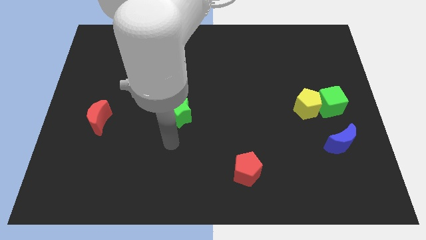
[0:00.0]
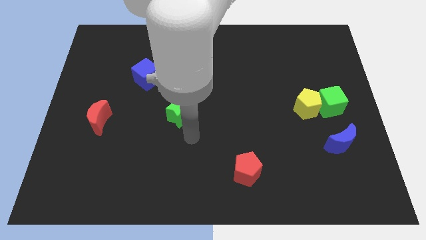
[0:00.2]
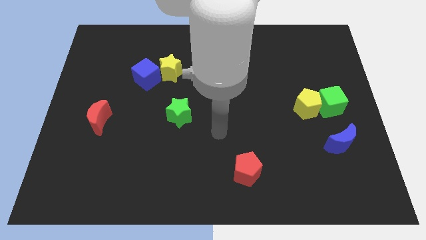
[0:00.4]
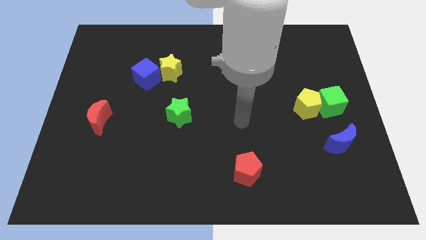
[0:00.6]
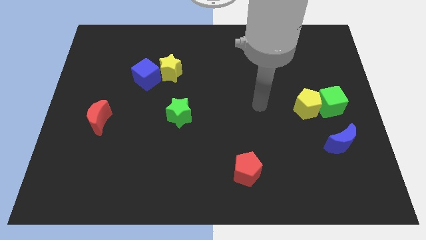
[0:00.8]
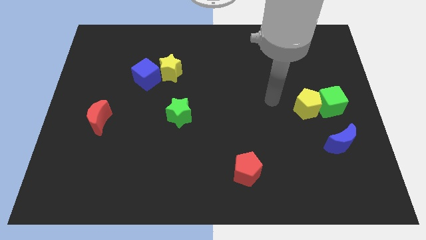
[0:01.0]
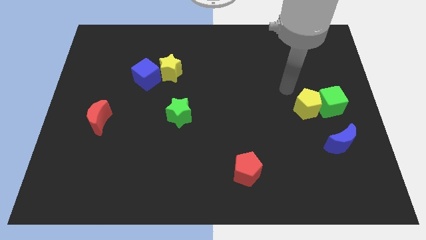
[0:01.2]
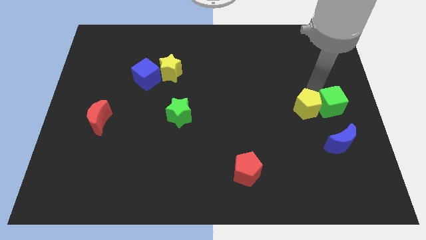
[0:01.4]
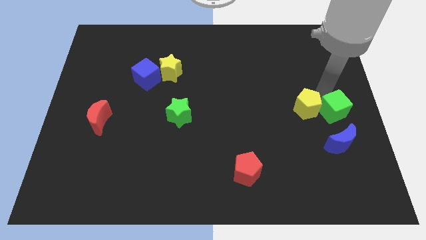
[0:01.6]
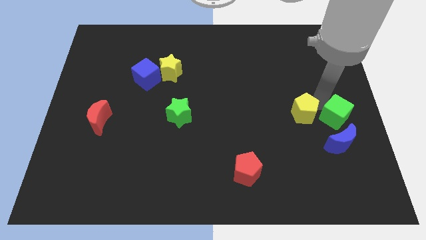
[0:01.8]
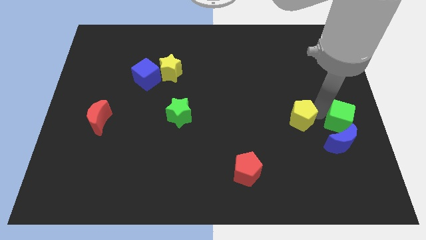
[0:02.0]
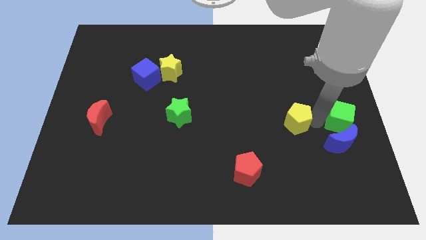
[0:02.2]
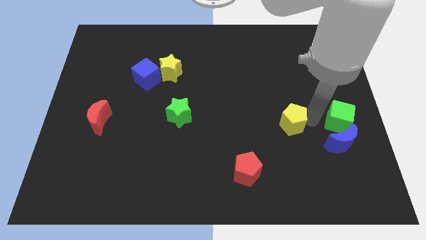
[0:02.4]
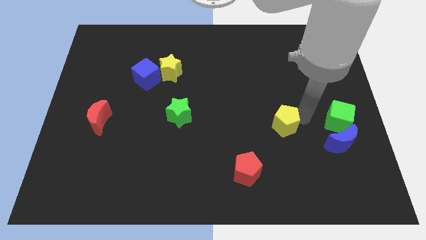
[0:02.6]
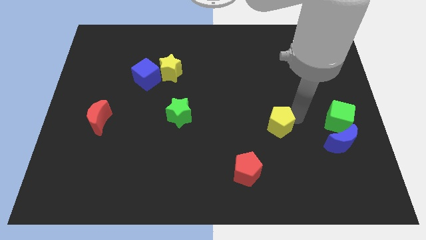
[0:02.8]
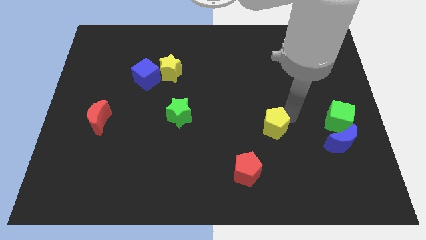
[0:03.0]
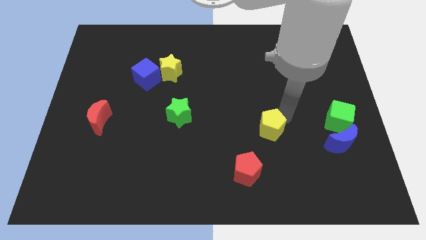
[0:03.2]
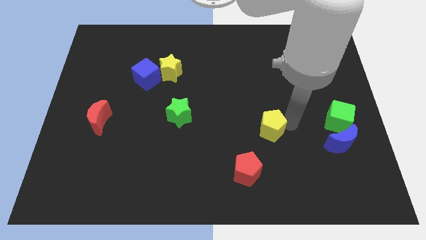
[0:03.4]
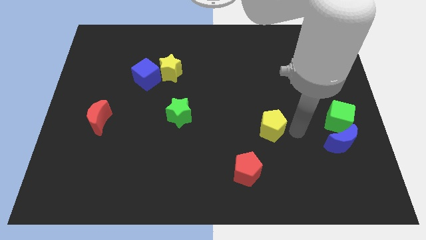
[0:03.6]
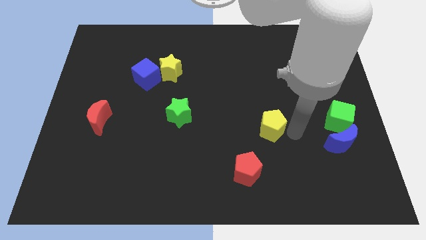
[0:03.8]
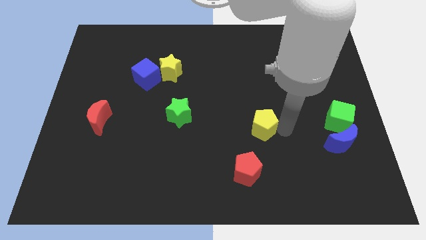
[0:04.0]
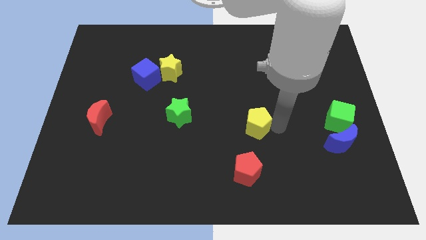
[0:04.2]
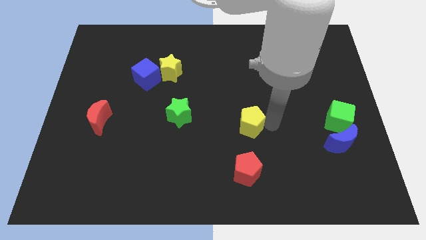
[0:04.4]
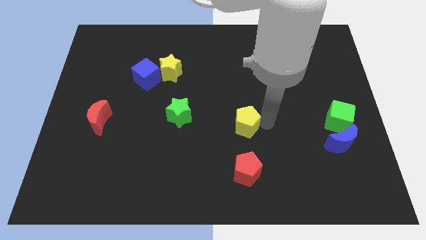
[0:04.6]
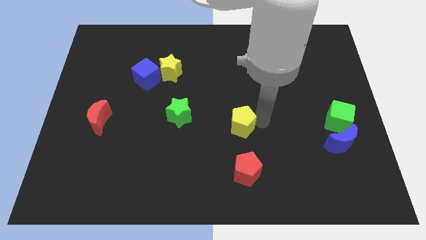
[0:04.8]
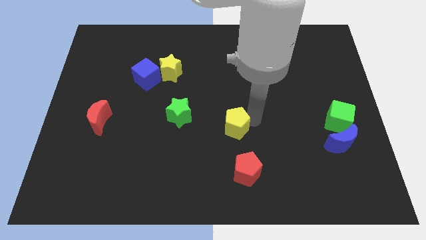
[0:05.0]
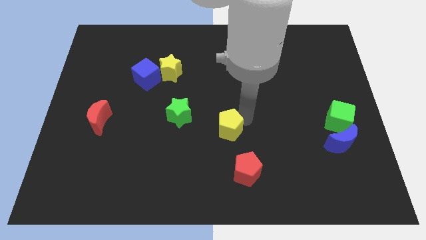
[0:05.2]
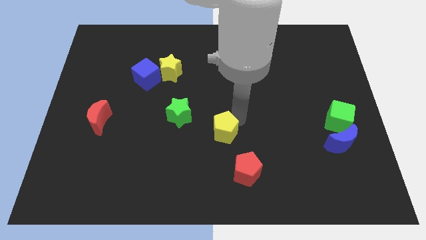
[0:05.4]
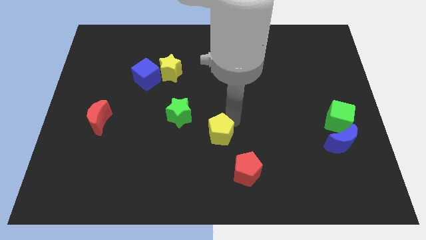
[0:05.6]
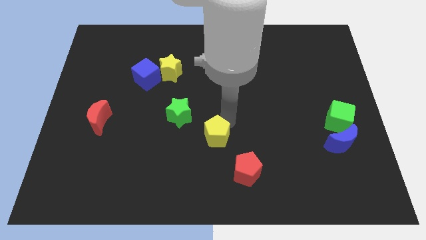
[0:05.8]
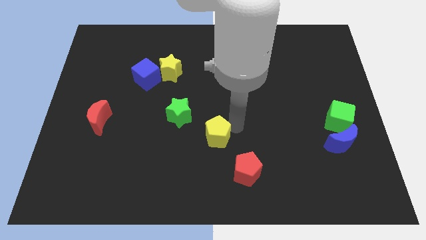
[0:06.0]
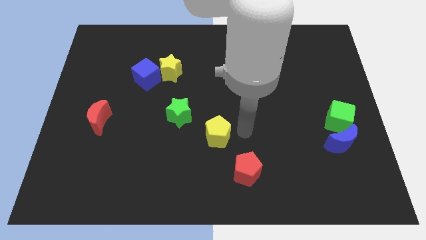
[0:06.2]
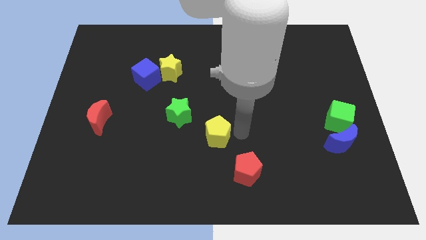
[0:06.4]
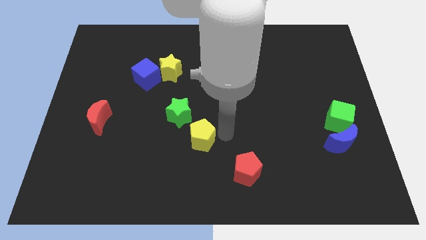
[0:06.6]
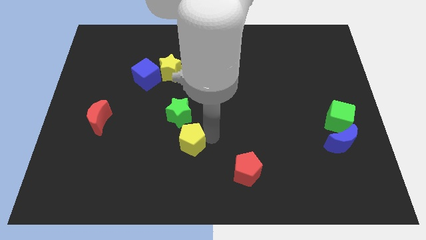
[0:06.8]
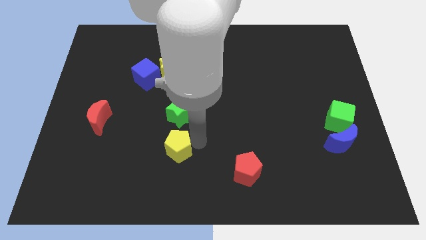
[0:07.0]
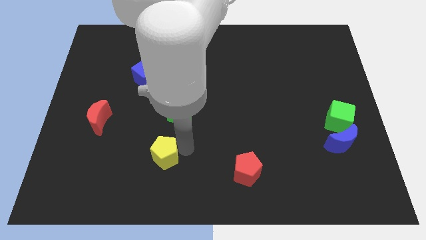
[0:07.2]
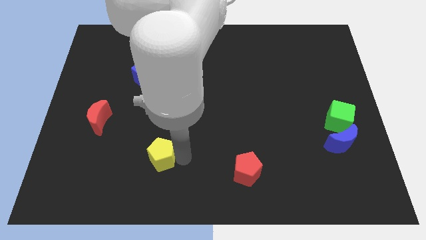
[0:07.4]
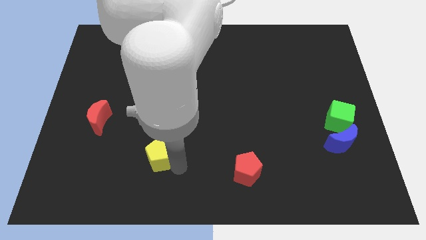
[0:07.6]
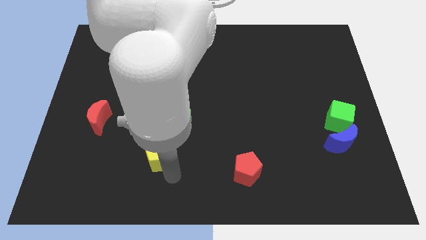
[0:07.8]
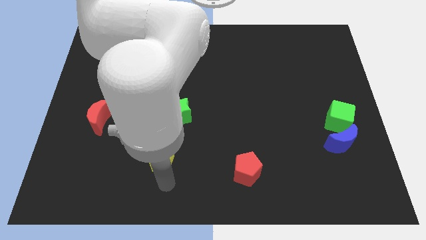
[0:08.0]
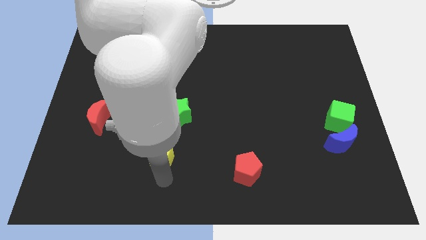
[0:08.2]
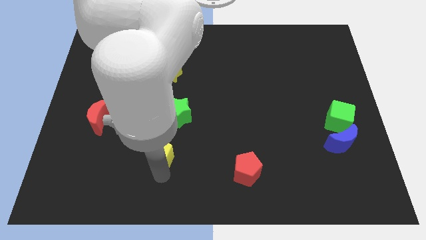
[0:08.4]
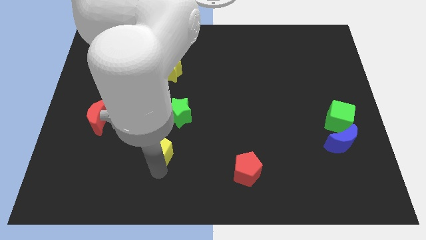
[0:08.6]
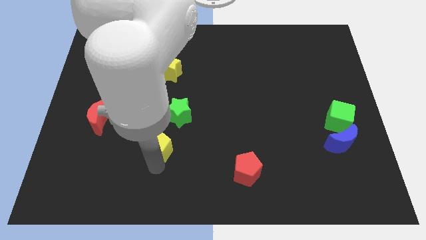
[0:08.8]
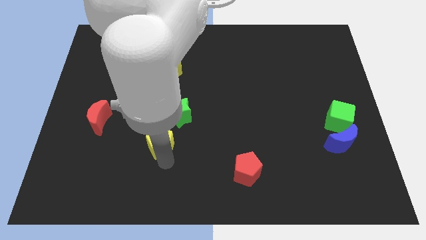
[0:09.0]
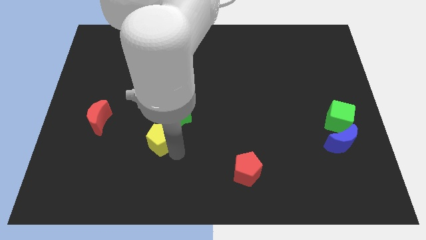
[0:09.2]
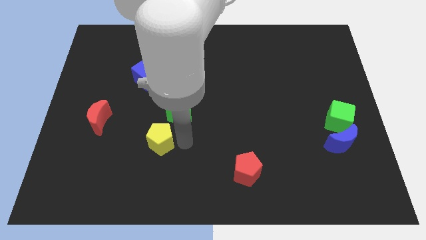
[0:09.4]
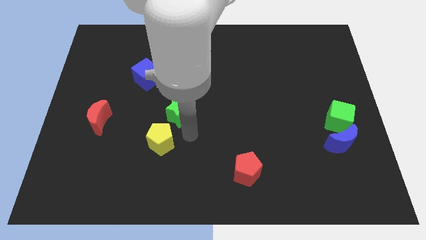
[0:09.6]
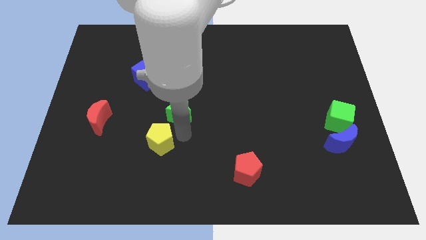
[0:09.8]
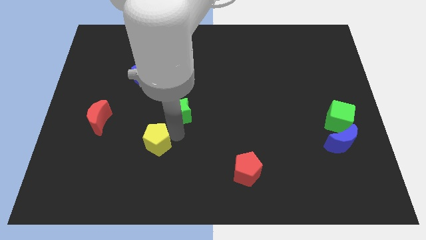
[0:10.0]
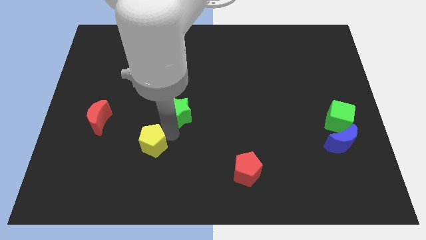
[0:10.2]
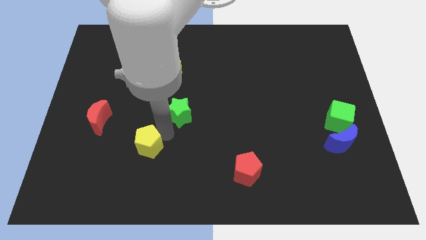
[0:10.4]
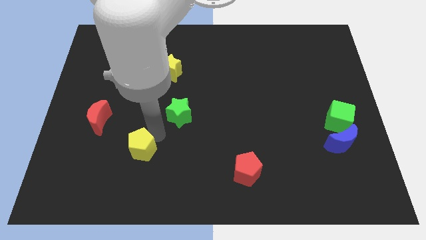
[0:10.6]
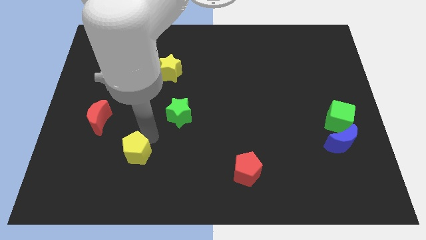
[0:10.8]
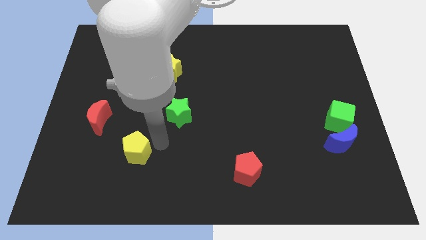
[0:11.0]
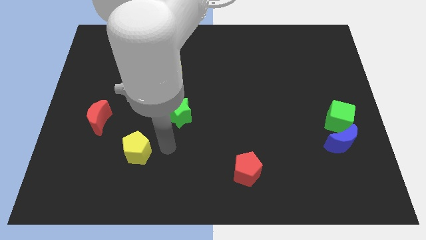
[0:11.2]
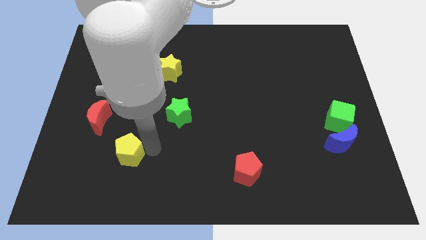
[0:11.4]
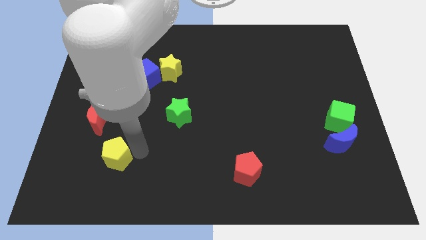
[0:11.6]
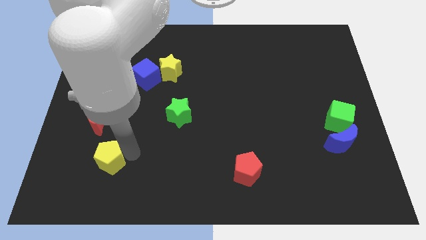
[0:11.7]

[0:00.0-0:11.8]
slide the yellow pentagon below the red moon
